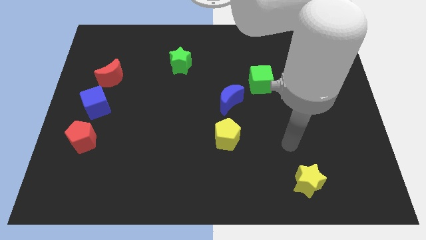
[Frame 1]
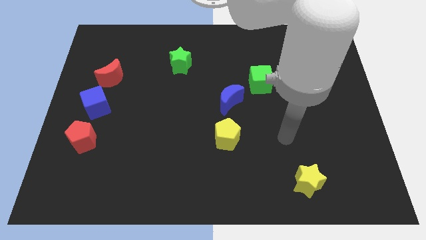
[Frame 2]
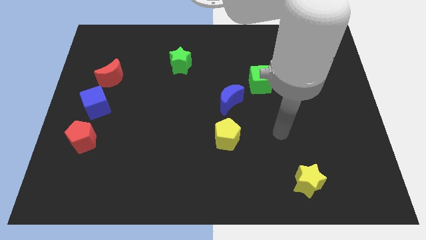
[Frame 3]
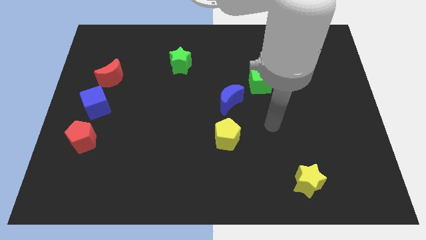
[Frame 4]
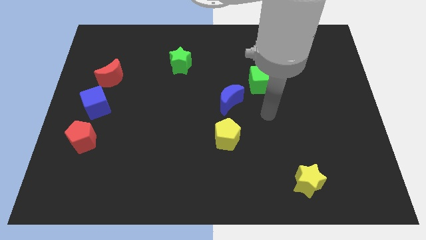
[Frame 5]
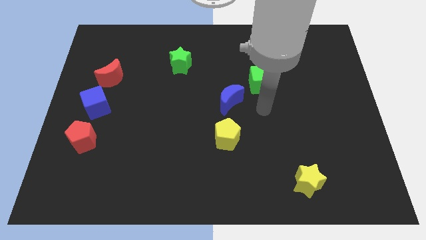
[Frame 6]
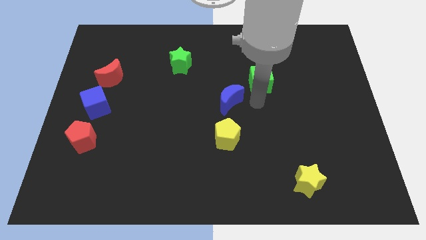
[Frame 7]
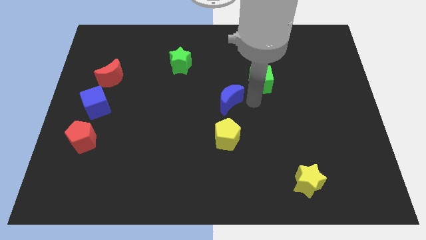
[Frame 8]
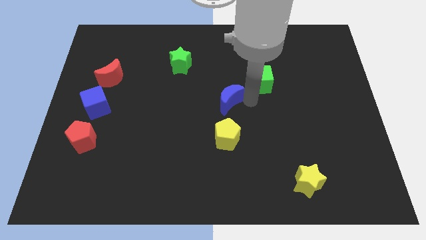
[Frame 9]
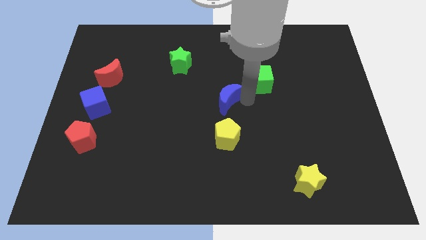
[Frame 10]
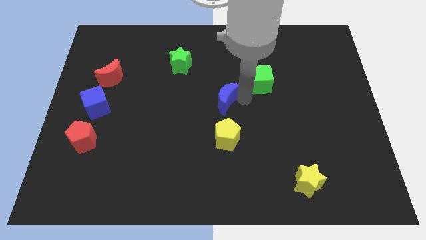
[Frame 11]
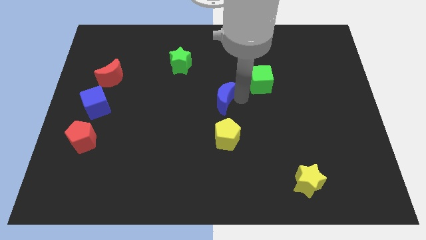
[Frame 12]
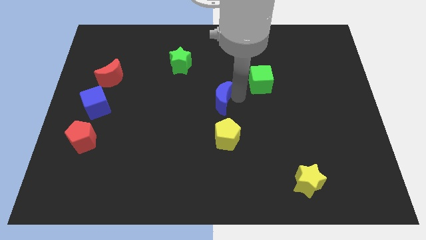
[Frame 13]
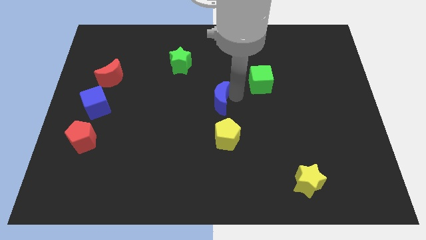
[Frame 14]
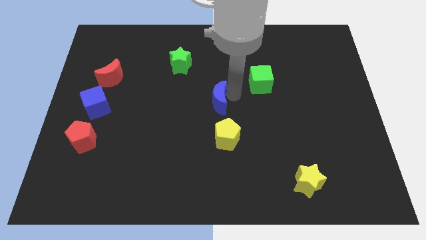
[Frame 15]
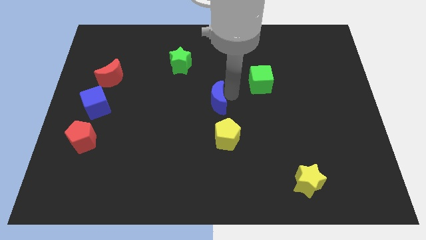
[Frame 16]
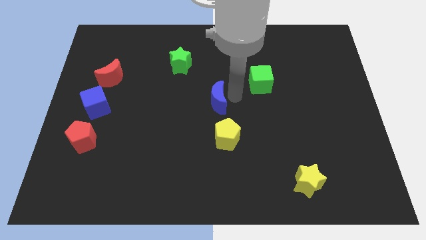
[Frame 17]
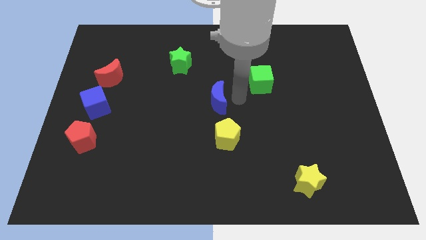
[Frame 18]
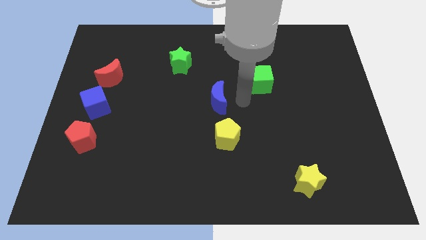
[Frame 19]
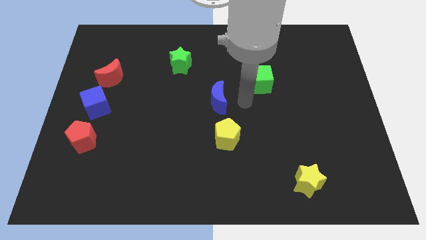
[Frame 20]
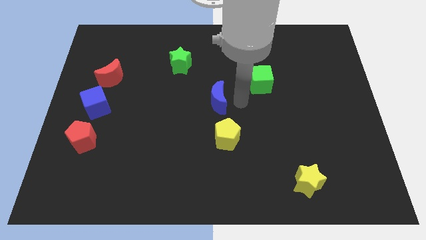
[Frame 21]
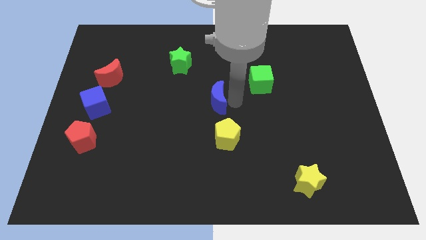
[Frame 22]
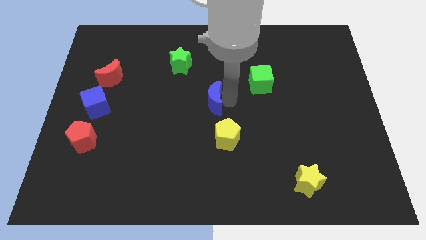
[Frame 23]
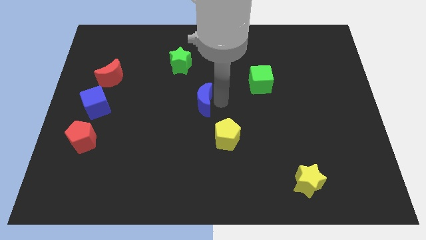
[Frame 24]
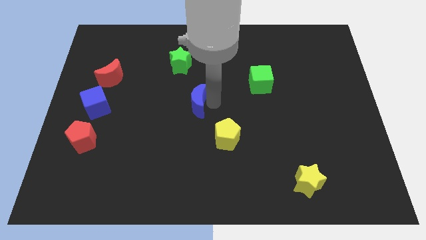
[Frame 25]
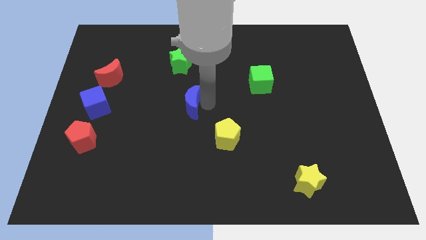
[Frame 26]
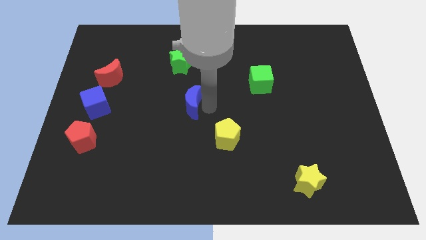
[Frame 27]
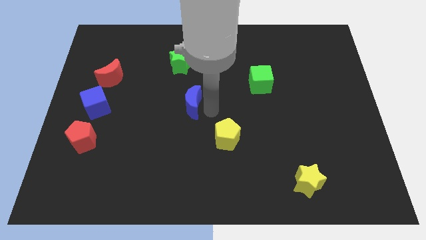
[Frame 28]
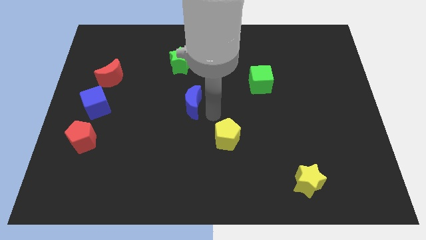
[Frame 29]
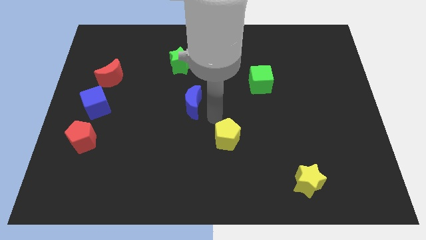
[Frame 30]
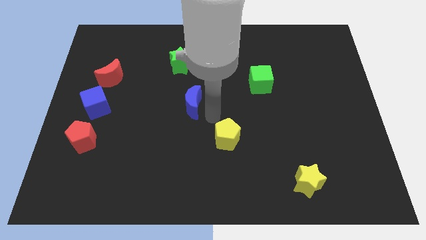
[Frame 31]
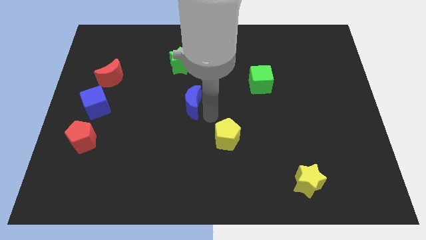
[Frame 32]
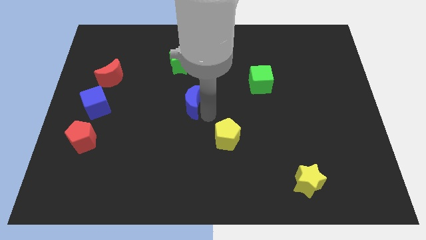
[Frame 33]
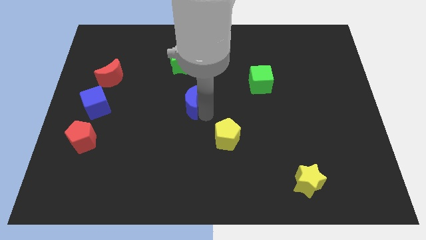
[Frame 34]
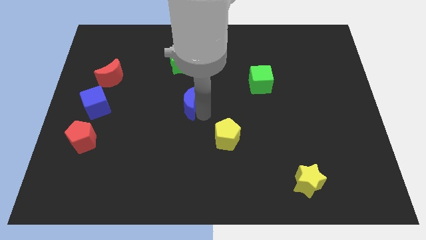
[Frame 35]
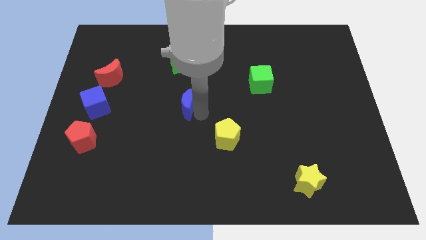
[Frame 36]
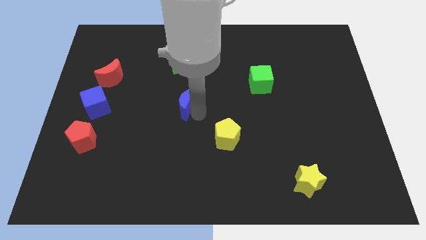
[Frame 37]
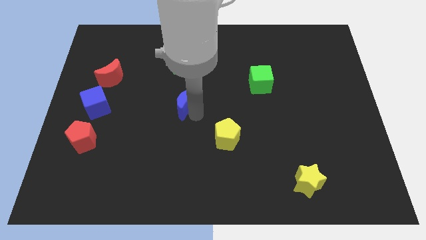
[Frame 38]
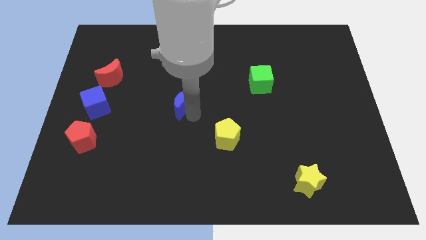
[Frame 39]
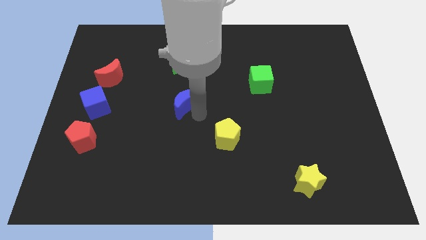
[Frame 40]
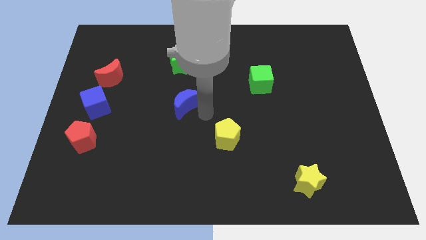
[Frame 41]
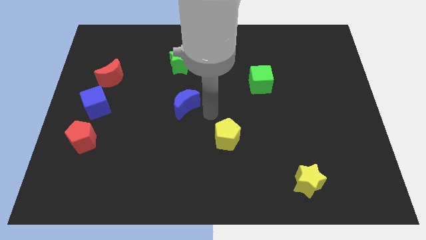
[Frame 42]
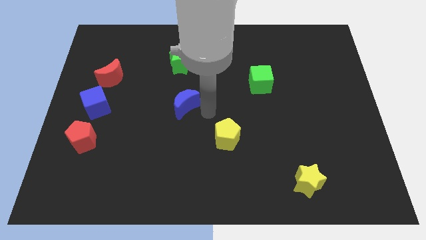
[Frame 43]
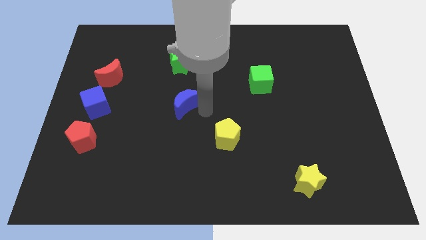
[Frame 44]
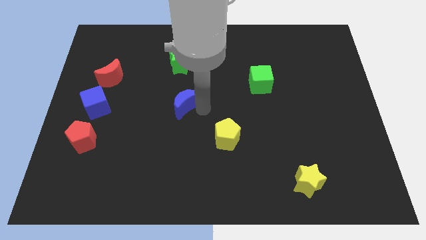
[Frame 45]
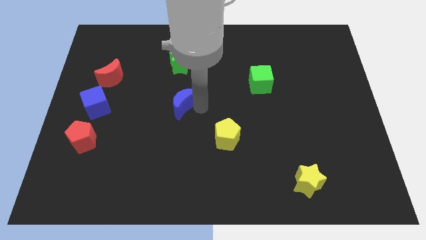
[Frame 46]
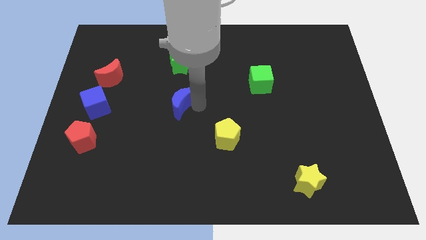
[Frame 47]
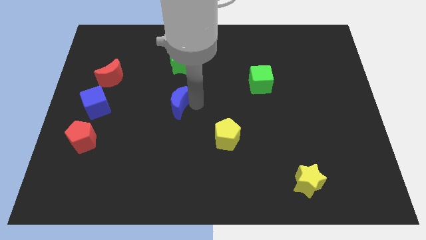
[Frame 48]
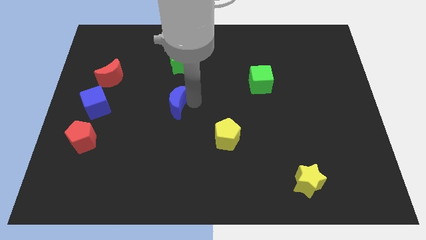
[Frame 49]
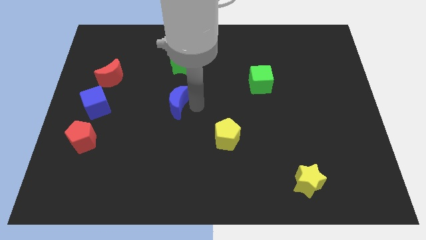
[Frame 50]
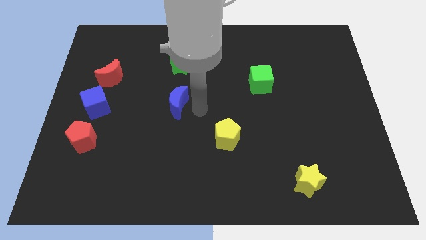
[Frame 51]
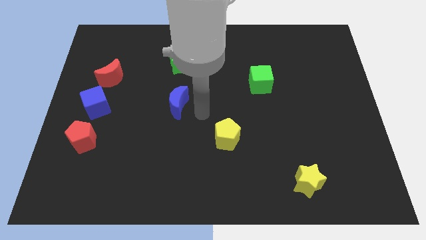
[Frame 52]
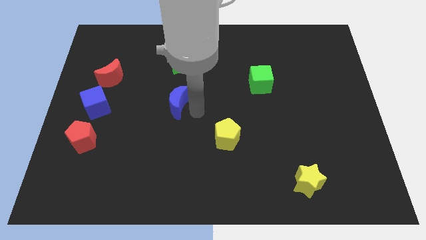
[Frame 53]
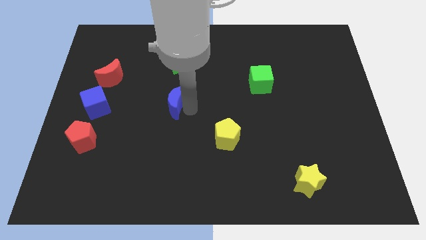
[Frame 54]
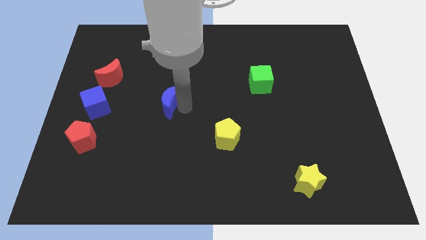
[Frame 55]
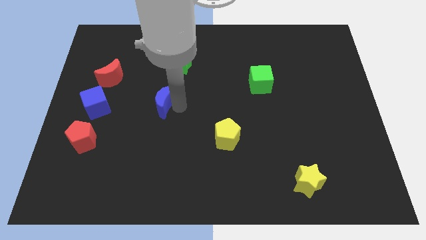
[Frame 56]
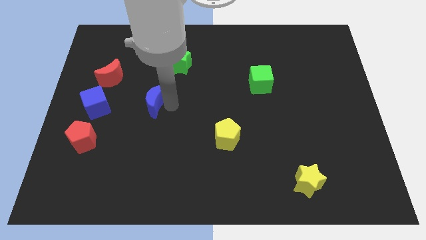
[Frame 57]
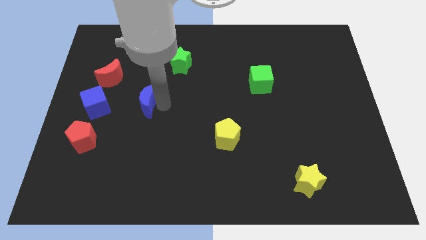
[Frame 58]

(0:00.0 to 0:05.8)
put the blue moon diagonally down and to the right of the red moon

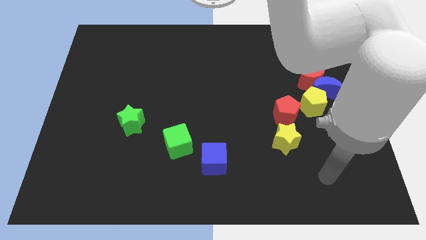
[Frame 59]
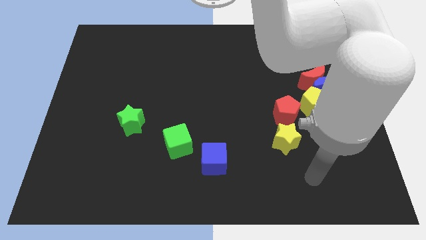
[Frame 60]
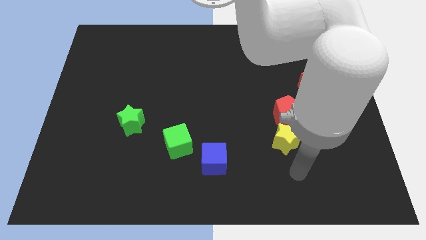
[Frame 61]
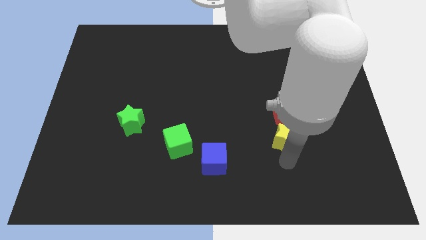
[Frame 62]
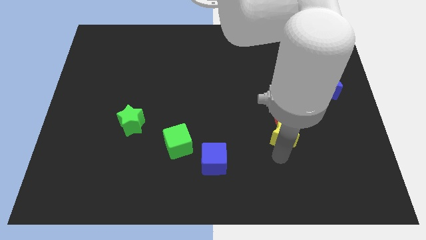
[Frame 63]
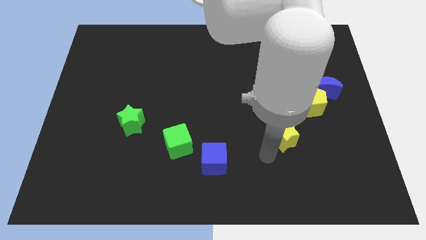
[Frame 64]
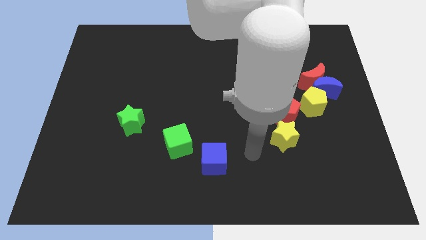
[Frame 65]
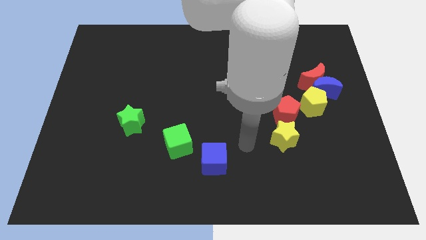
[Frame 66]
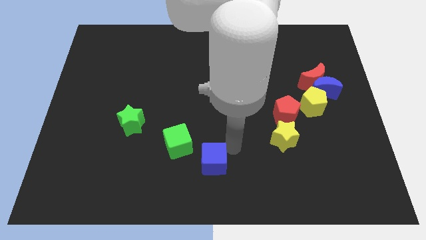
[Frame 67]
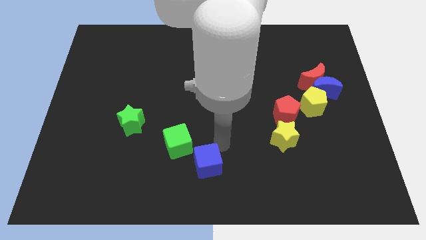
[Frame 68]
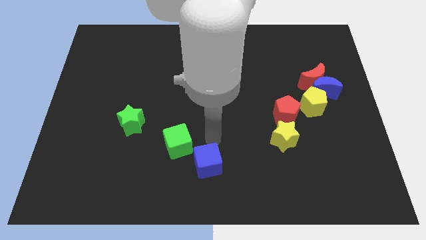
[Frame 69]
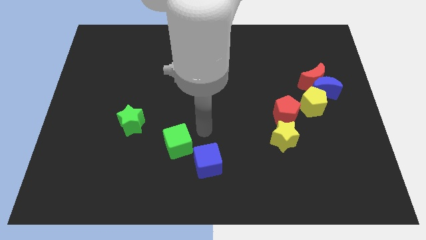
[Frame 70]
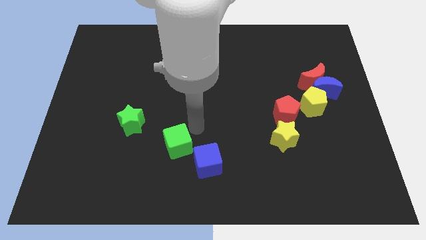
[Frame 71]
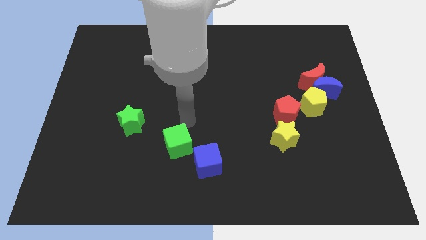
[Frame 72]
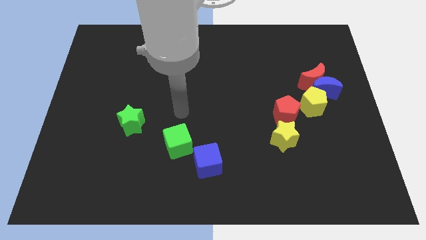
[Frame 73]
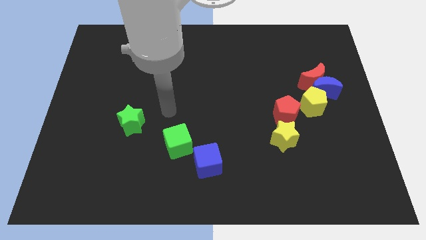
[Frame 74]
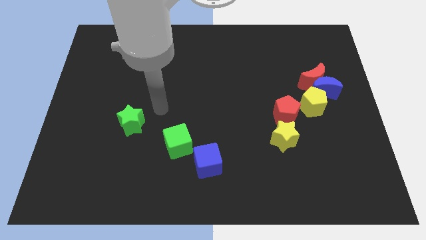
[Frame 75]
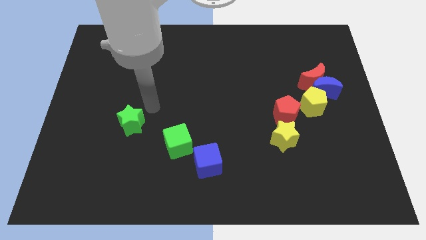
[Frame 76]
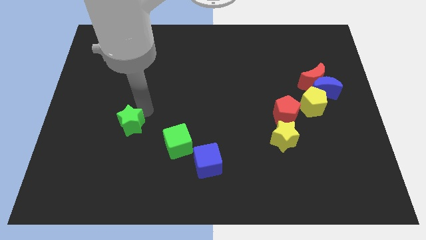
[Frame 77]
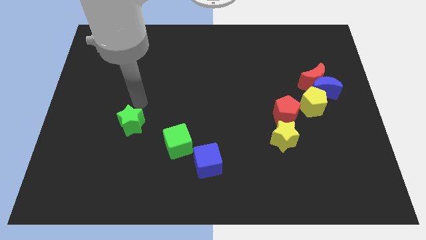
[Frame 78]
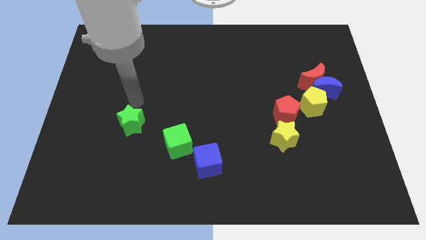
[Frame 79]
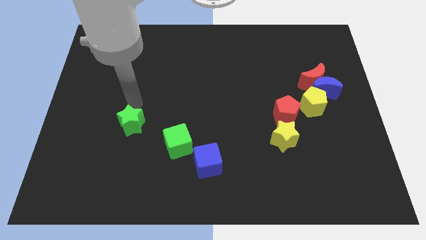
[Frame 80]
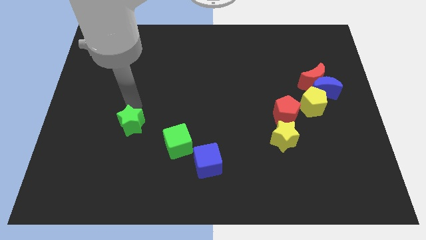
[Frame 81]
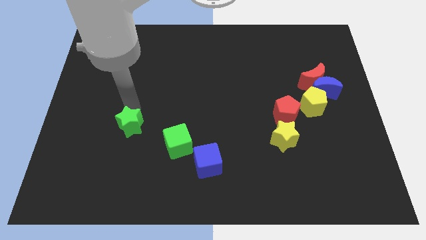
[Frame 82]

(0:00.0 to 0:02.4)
slide the green star left of the green cube
